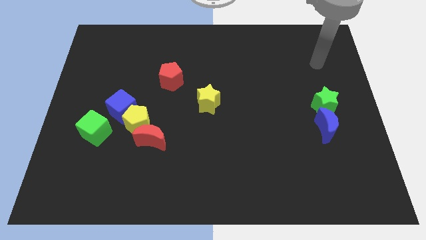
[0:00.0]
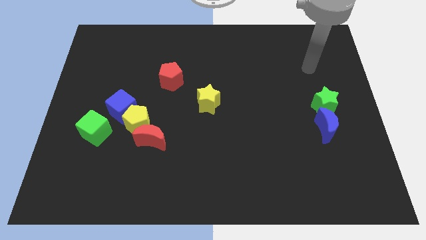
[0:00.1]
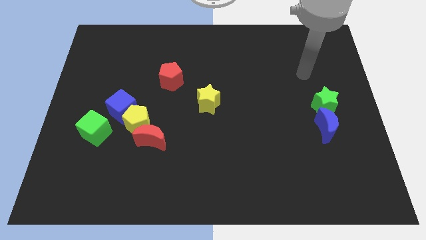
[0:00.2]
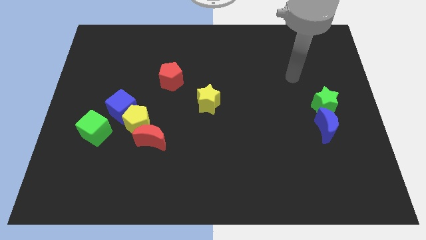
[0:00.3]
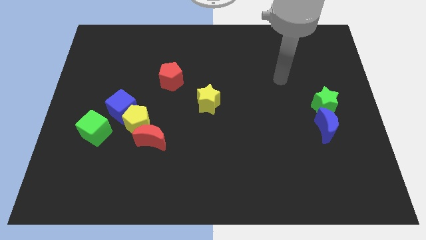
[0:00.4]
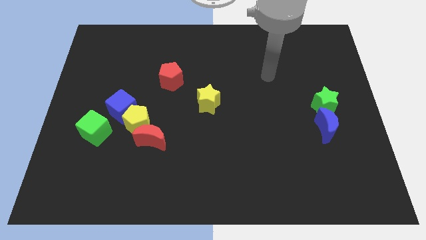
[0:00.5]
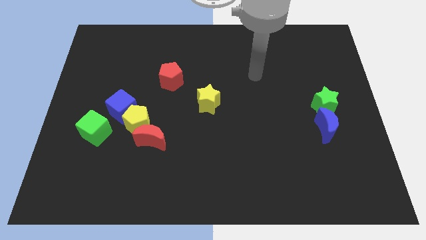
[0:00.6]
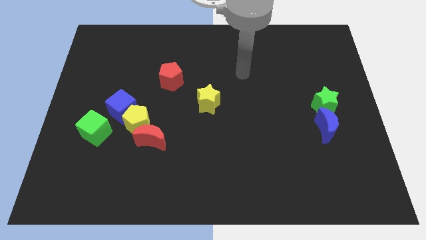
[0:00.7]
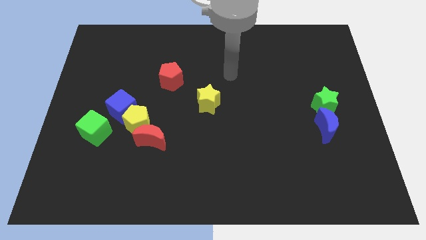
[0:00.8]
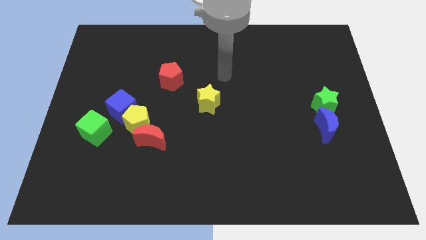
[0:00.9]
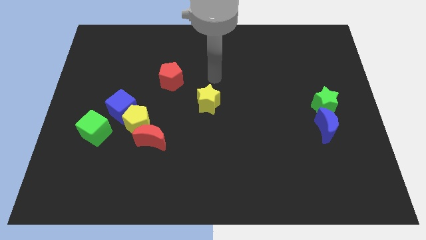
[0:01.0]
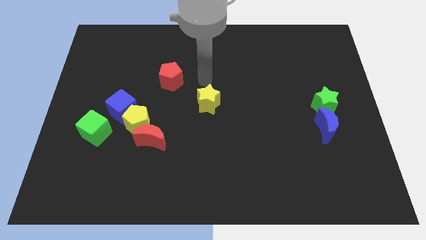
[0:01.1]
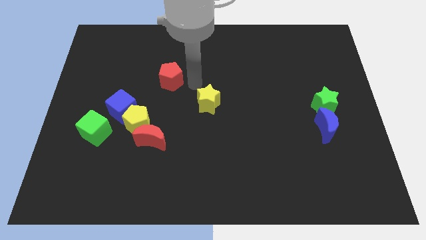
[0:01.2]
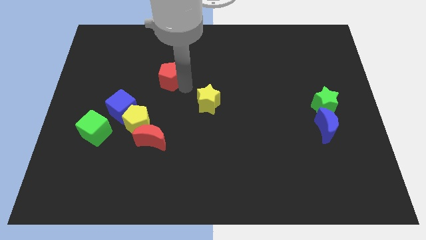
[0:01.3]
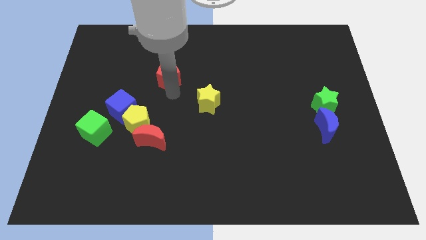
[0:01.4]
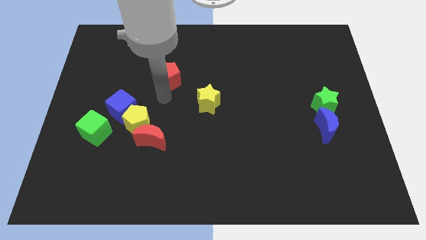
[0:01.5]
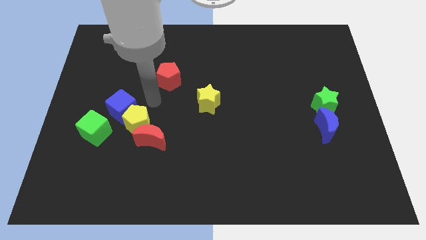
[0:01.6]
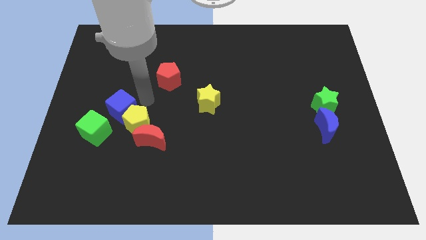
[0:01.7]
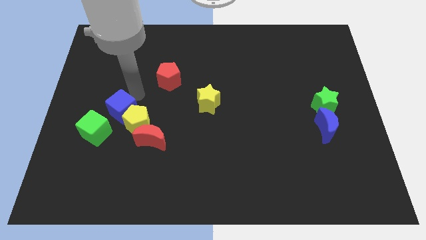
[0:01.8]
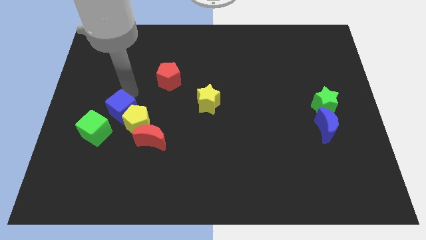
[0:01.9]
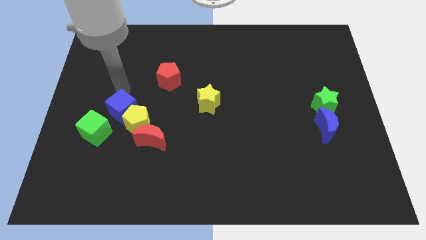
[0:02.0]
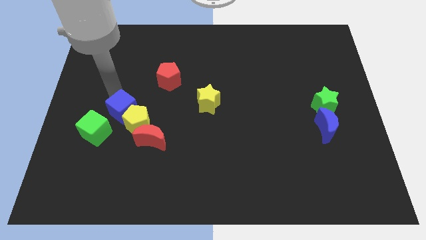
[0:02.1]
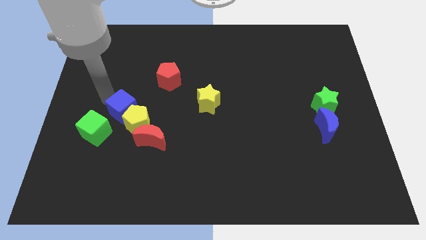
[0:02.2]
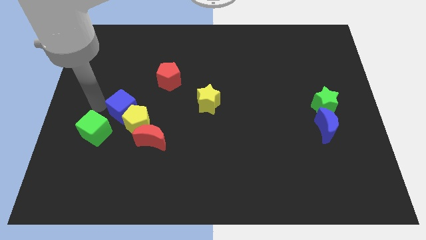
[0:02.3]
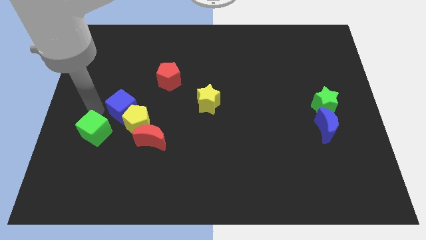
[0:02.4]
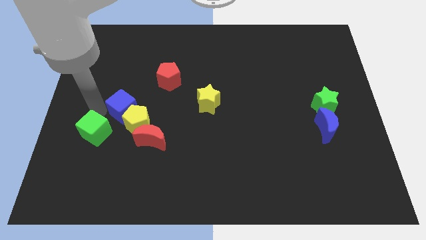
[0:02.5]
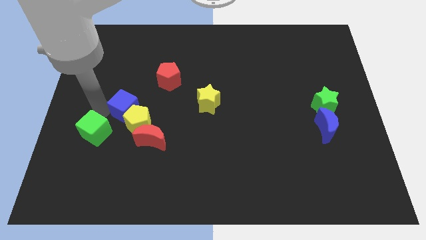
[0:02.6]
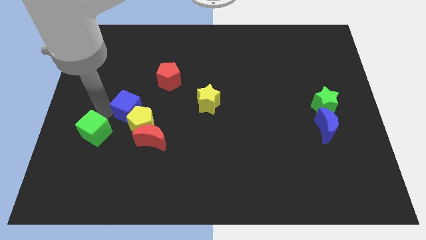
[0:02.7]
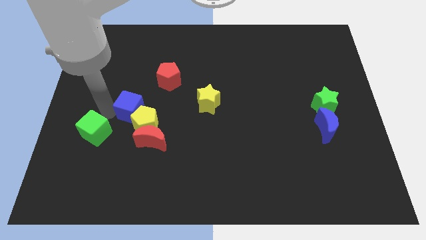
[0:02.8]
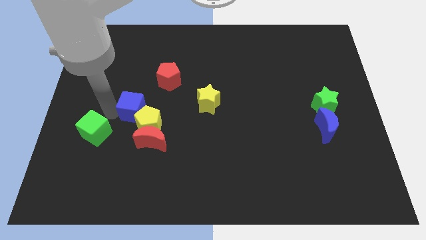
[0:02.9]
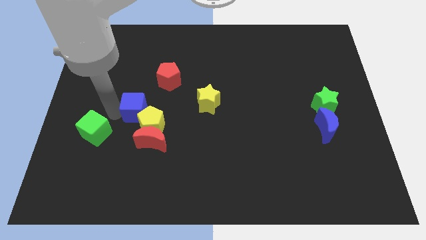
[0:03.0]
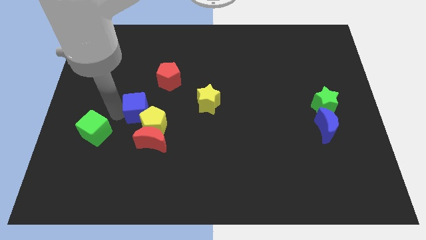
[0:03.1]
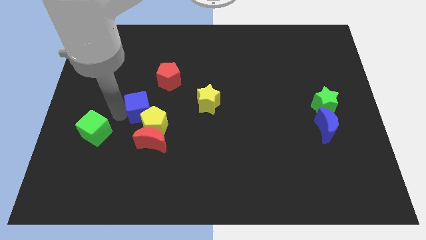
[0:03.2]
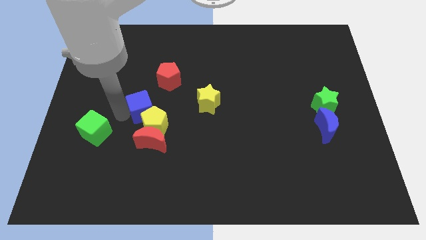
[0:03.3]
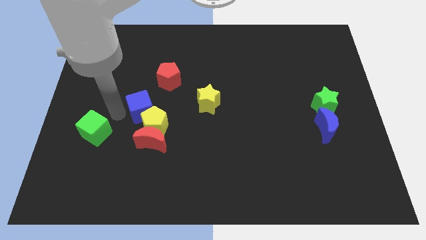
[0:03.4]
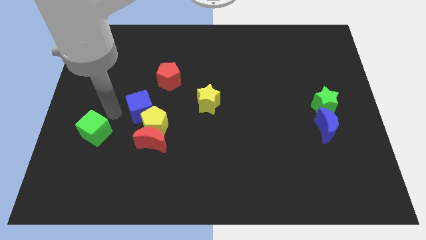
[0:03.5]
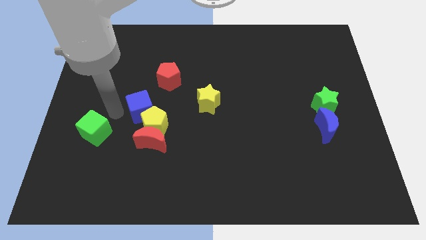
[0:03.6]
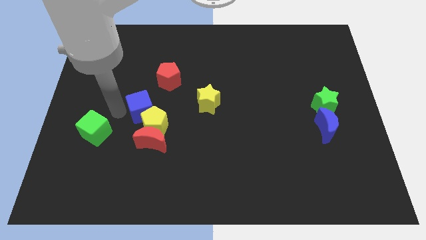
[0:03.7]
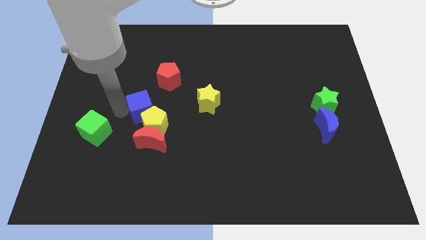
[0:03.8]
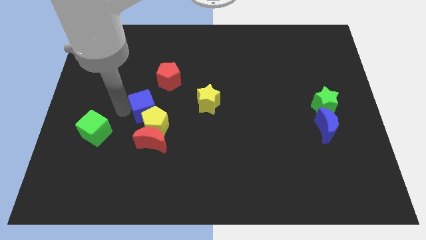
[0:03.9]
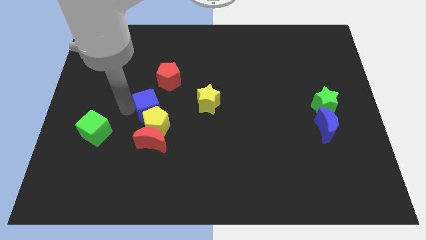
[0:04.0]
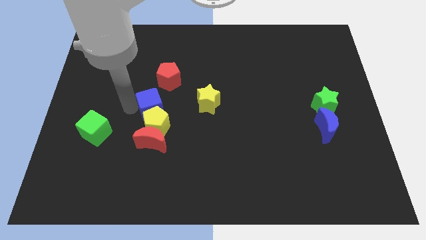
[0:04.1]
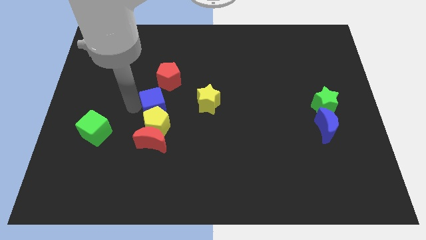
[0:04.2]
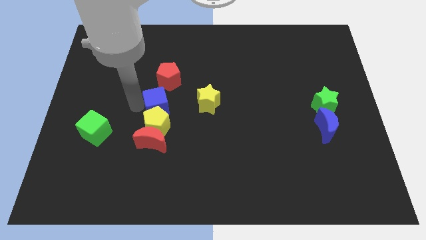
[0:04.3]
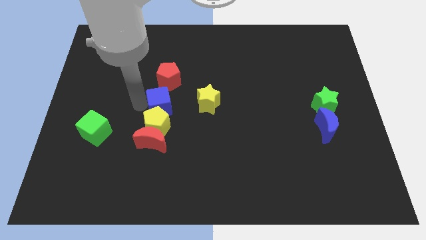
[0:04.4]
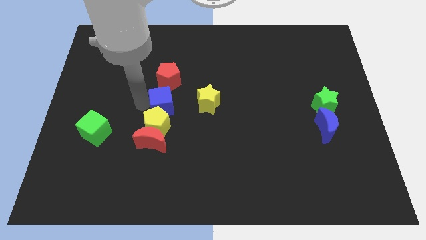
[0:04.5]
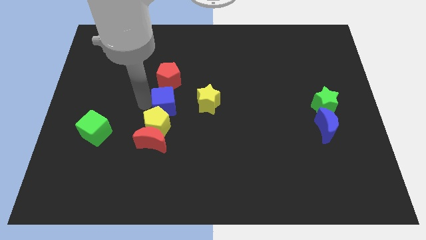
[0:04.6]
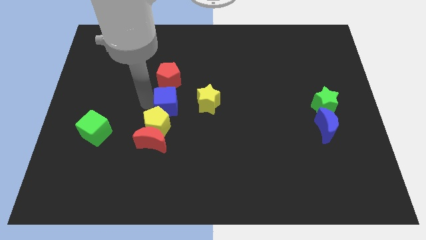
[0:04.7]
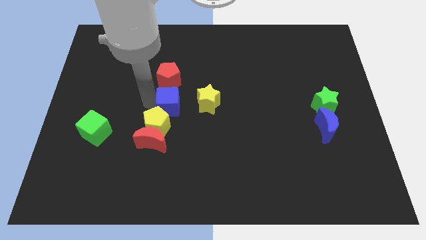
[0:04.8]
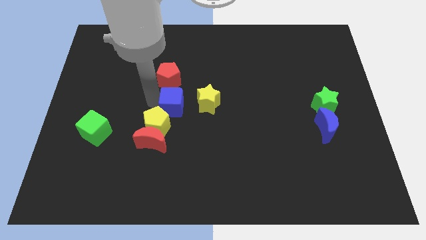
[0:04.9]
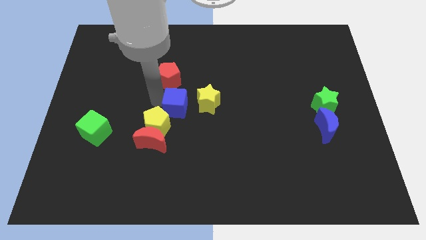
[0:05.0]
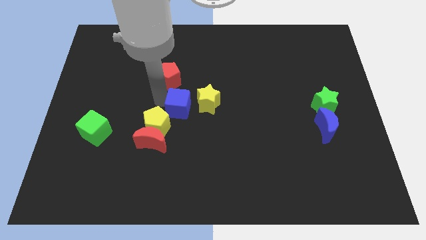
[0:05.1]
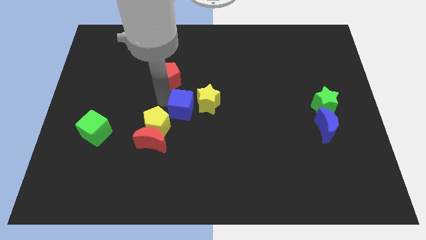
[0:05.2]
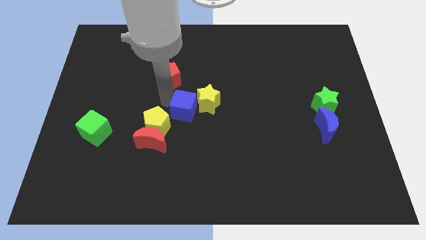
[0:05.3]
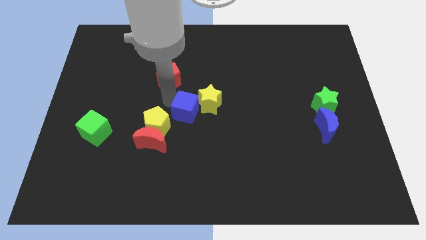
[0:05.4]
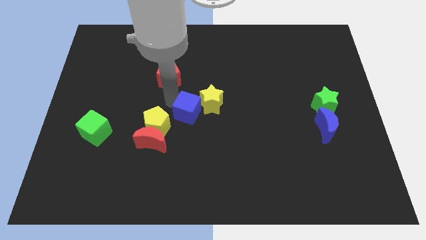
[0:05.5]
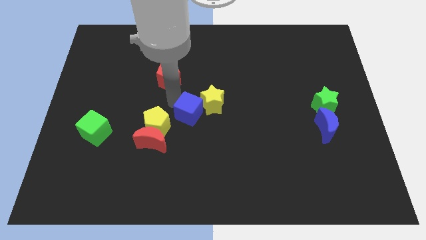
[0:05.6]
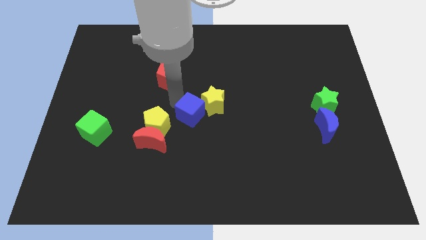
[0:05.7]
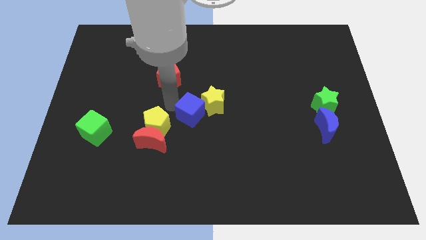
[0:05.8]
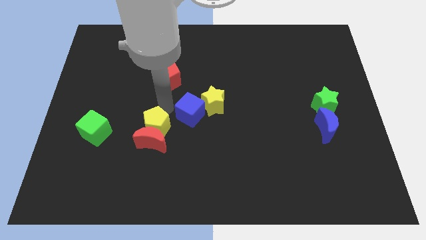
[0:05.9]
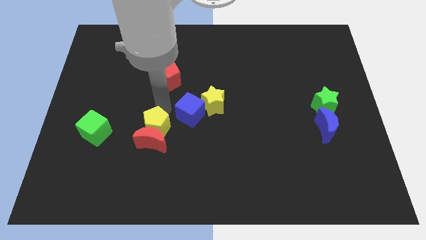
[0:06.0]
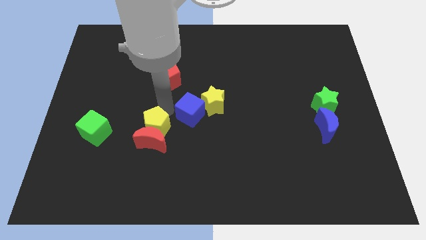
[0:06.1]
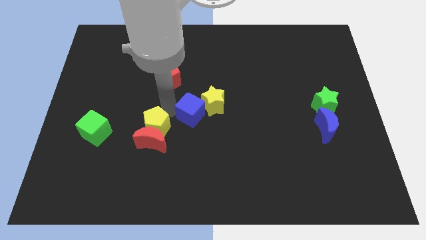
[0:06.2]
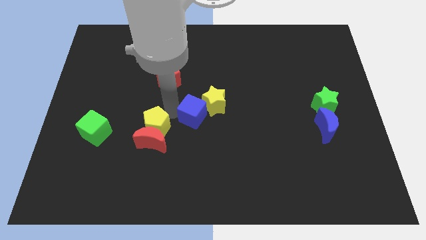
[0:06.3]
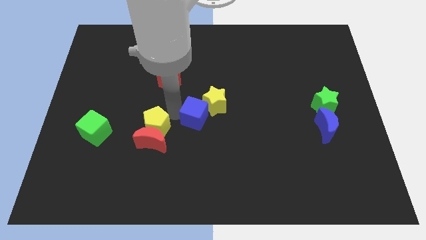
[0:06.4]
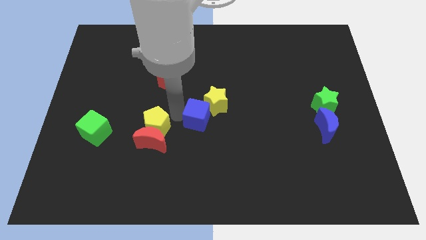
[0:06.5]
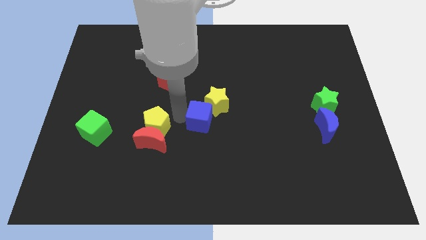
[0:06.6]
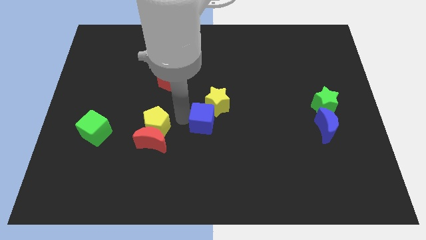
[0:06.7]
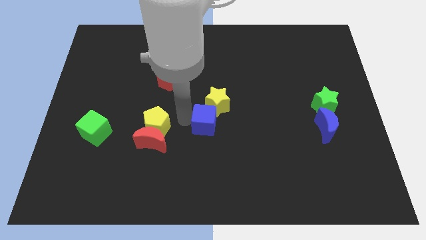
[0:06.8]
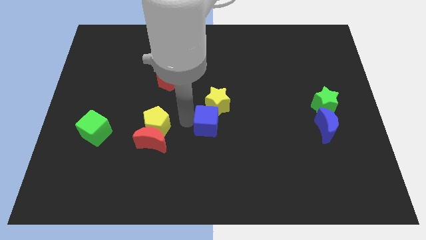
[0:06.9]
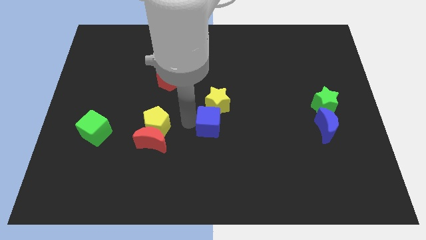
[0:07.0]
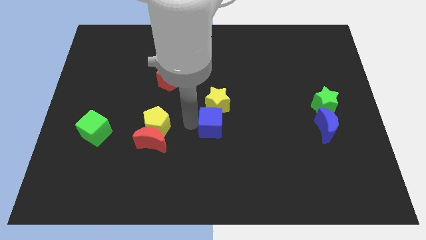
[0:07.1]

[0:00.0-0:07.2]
slide the blue cube right

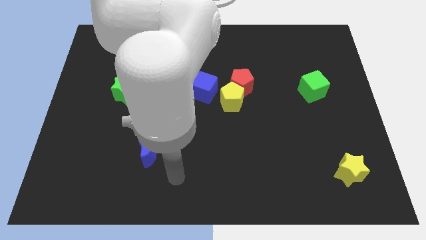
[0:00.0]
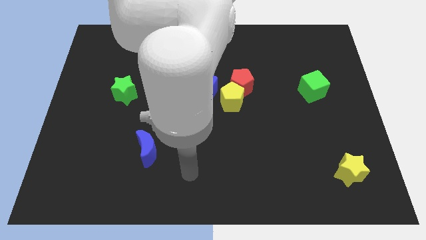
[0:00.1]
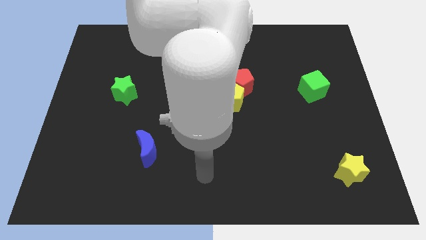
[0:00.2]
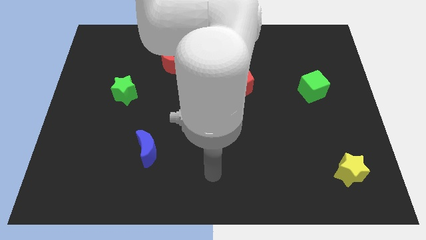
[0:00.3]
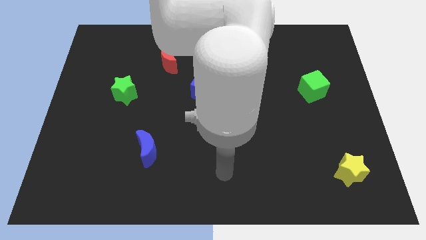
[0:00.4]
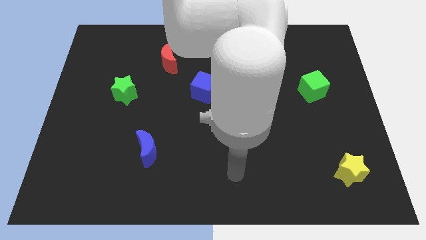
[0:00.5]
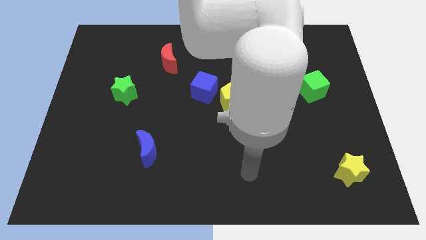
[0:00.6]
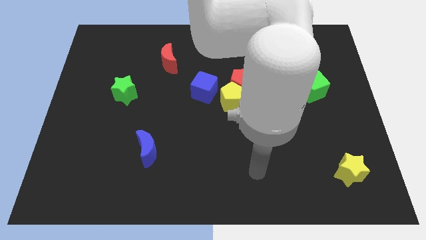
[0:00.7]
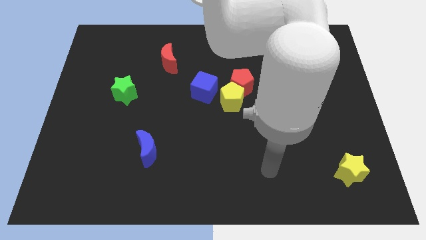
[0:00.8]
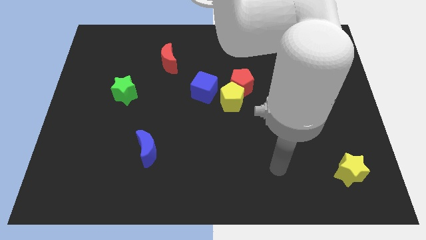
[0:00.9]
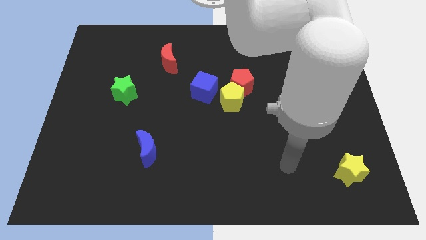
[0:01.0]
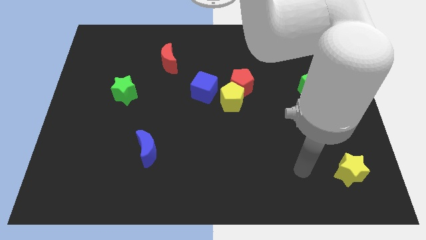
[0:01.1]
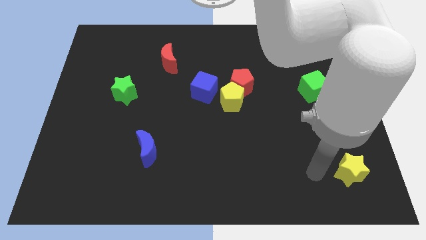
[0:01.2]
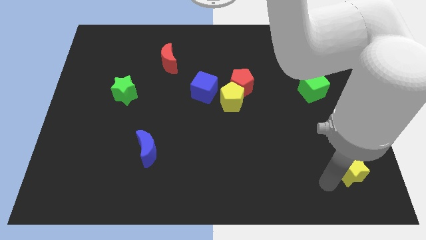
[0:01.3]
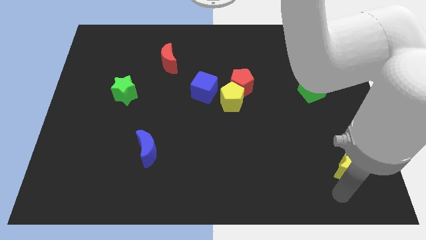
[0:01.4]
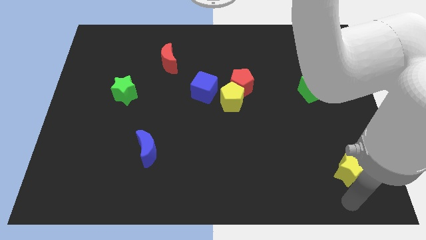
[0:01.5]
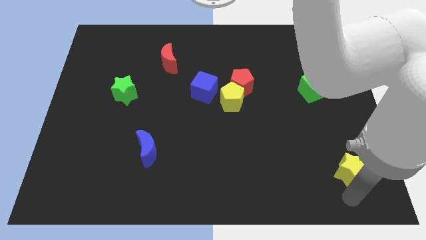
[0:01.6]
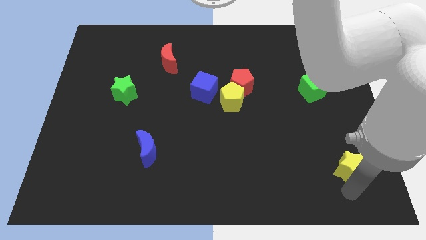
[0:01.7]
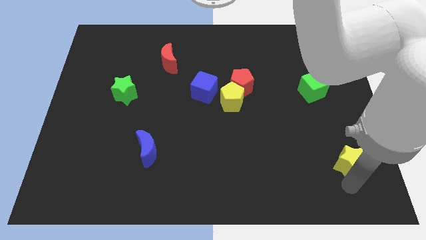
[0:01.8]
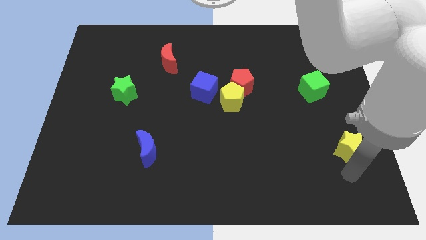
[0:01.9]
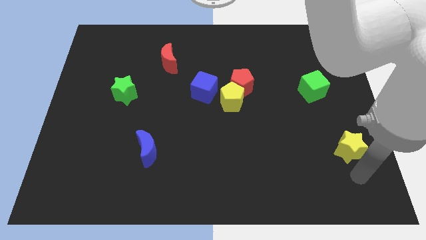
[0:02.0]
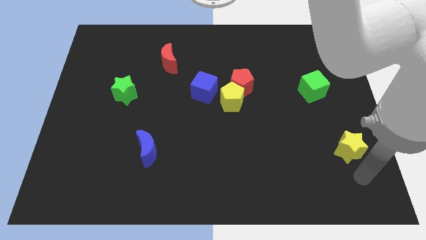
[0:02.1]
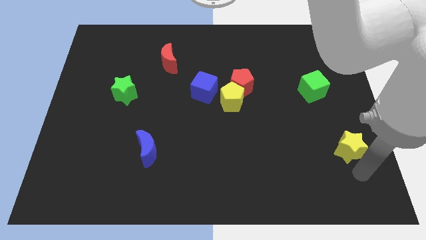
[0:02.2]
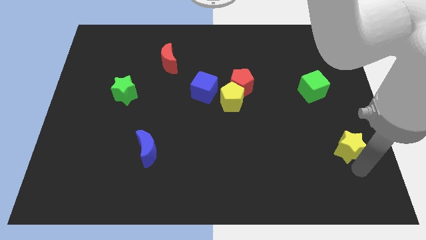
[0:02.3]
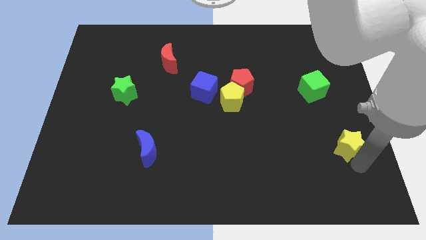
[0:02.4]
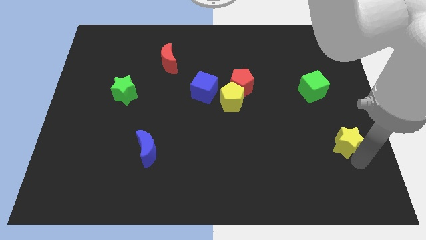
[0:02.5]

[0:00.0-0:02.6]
move the yellow star upwards a little
